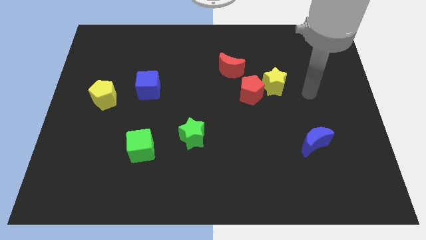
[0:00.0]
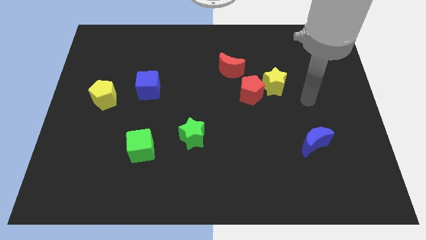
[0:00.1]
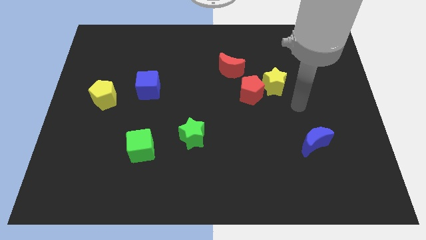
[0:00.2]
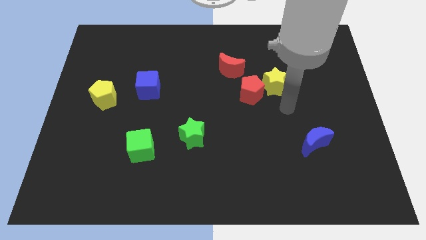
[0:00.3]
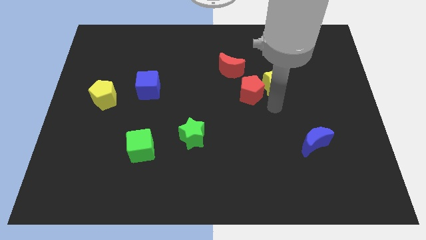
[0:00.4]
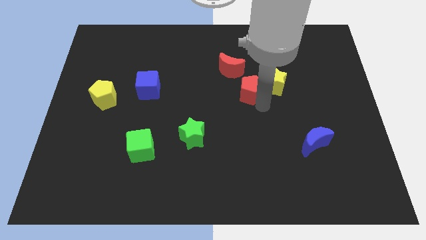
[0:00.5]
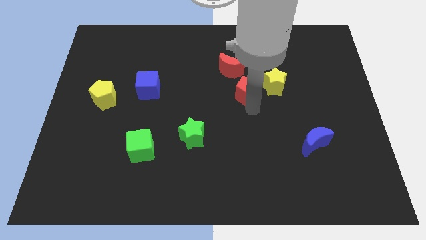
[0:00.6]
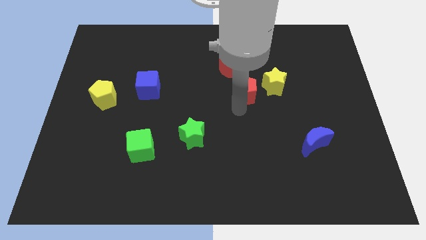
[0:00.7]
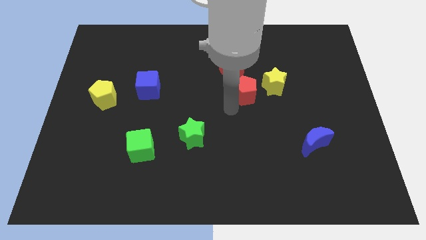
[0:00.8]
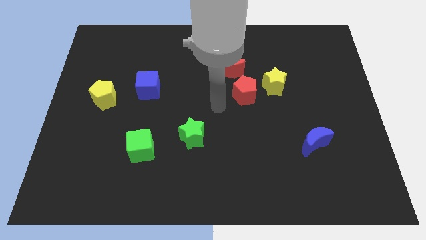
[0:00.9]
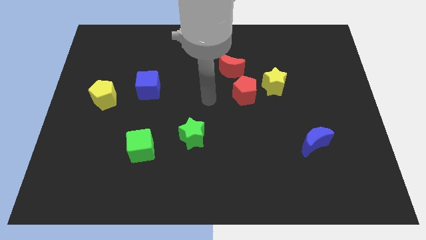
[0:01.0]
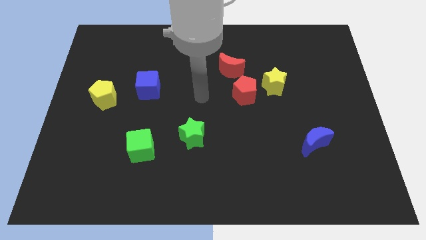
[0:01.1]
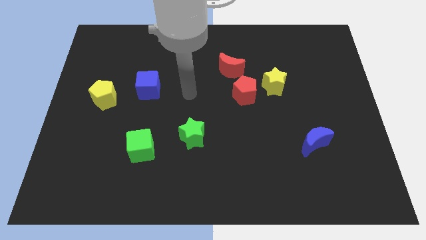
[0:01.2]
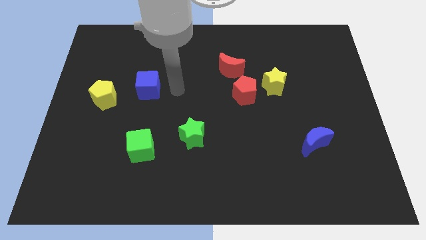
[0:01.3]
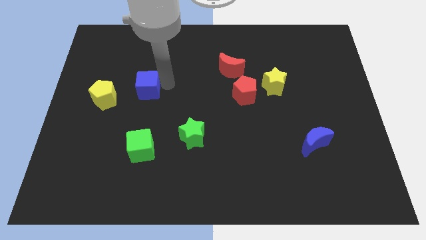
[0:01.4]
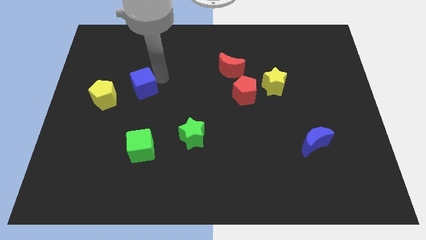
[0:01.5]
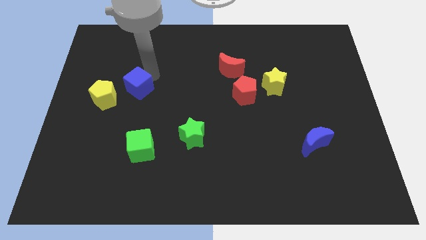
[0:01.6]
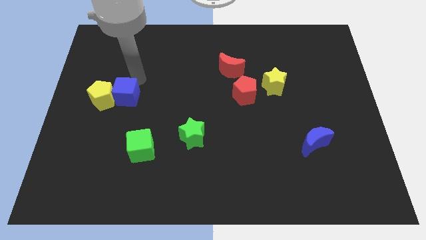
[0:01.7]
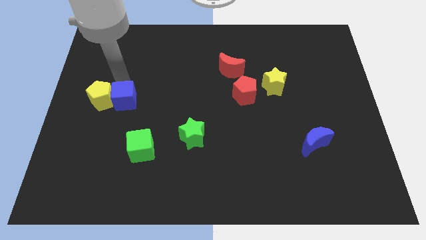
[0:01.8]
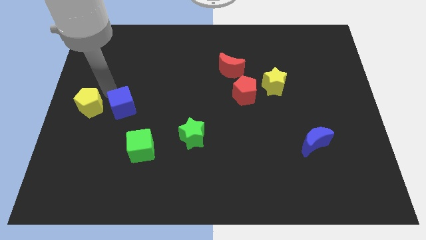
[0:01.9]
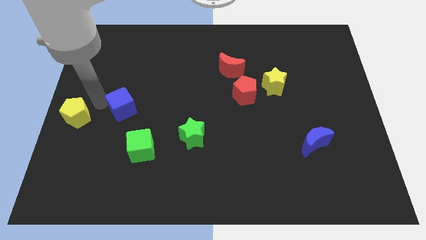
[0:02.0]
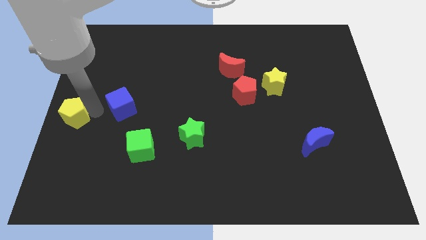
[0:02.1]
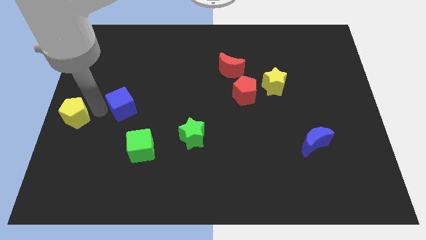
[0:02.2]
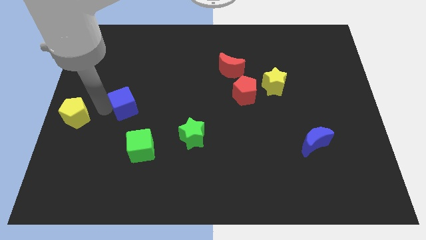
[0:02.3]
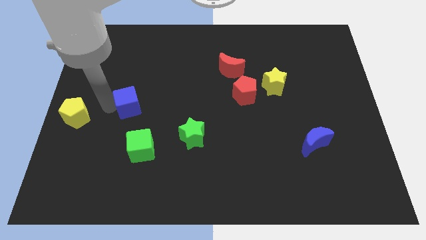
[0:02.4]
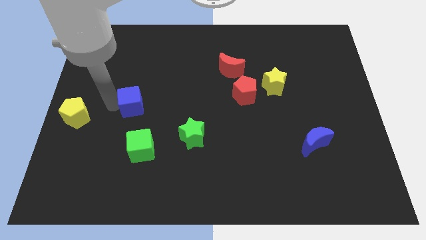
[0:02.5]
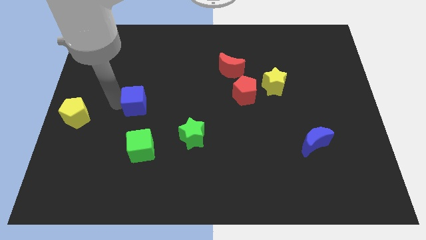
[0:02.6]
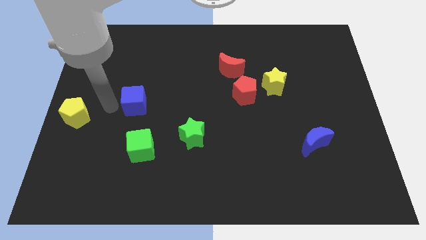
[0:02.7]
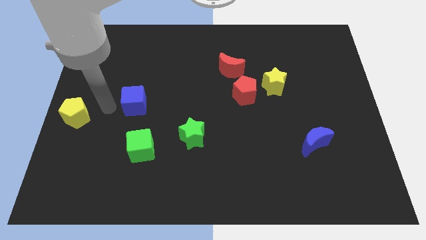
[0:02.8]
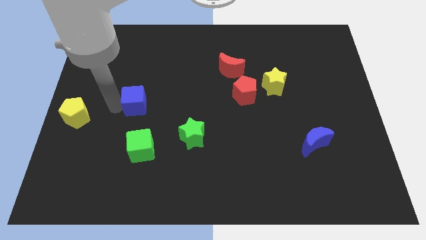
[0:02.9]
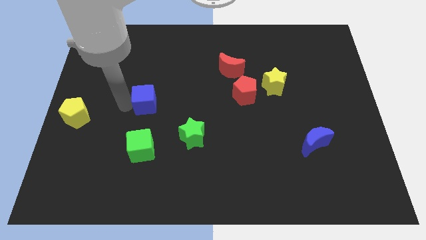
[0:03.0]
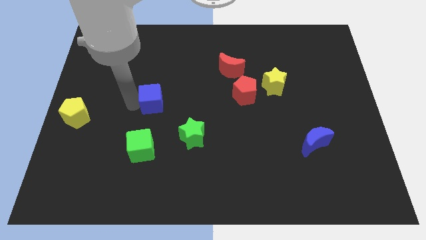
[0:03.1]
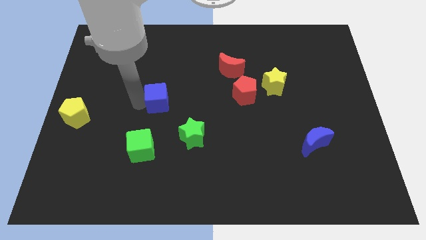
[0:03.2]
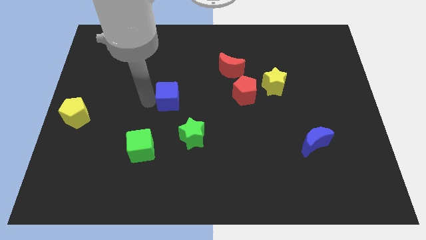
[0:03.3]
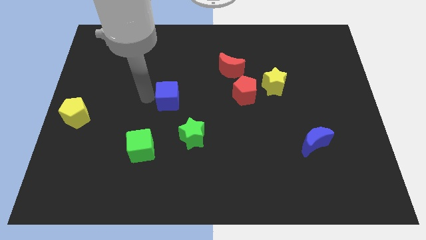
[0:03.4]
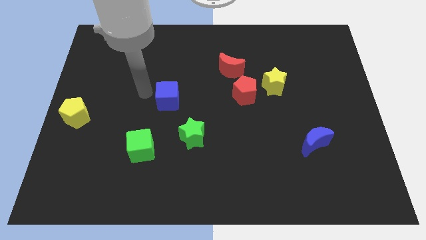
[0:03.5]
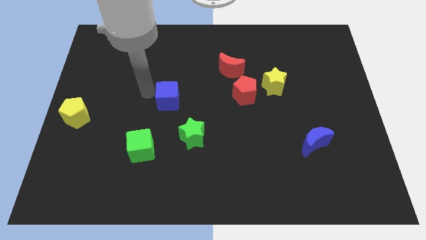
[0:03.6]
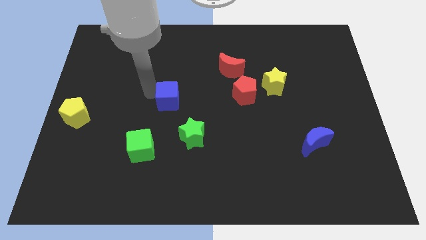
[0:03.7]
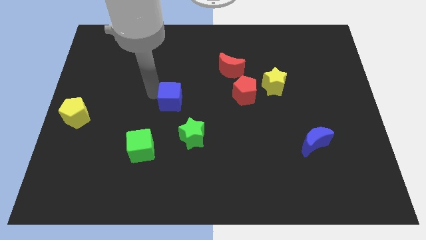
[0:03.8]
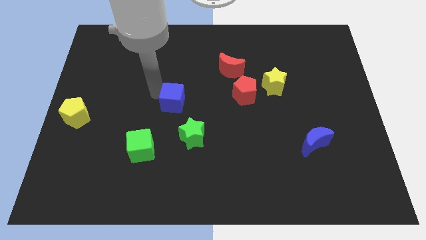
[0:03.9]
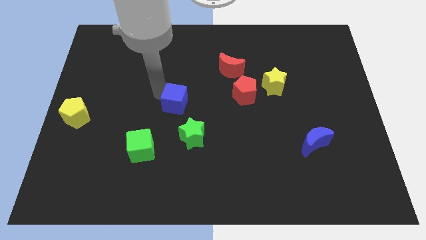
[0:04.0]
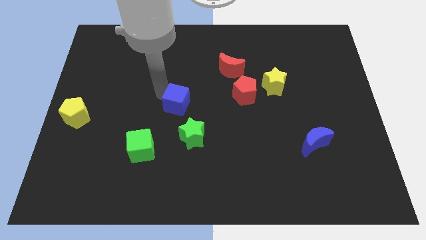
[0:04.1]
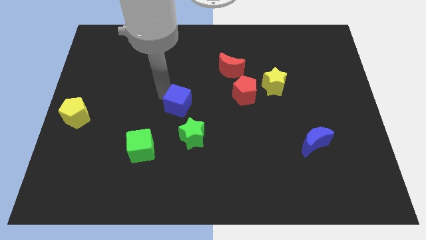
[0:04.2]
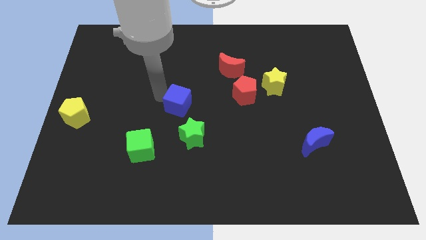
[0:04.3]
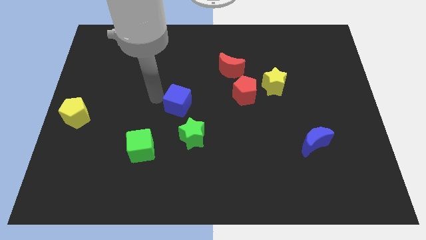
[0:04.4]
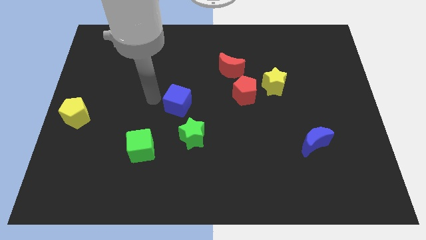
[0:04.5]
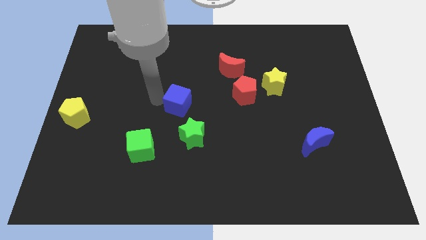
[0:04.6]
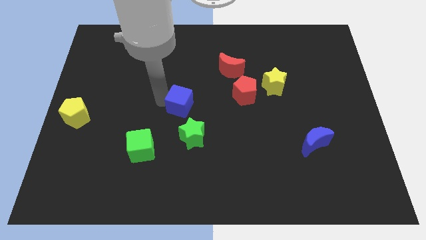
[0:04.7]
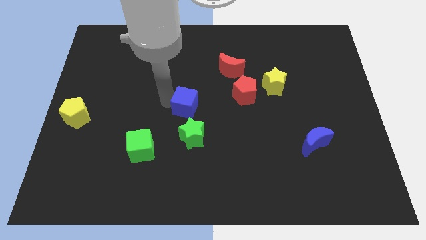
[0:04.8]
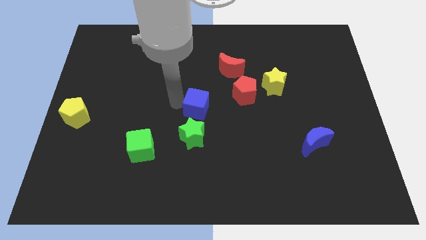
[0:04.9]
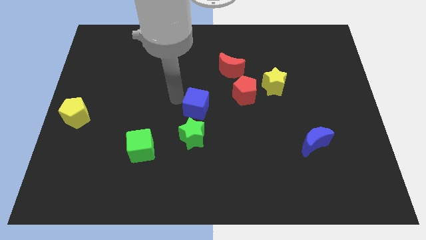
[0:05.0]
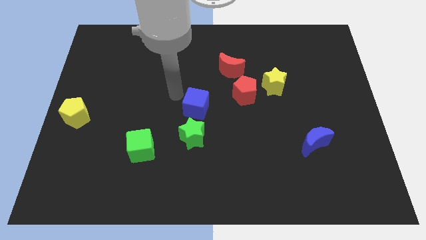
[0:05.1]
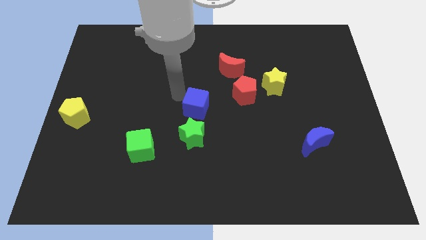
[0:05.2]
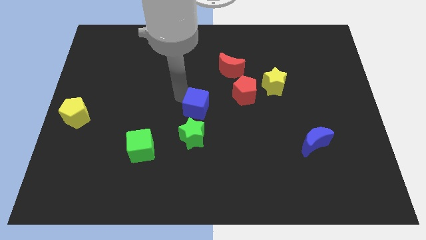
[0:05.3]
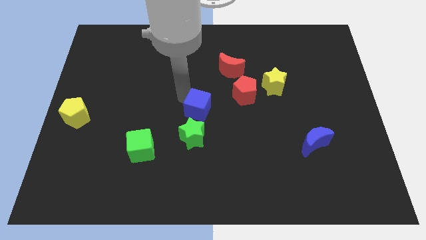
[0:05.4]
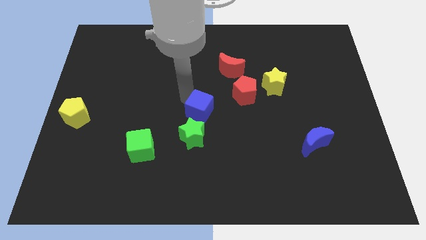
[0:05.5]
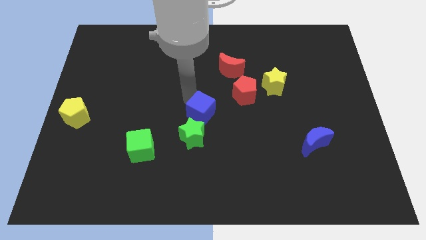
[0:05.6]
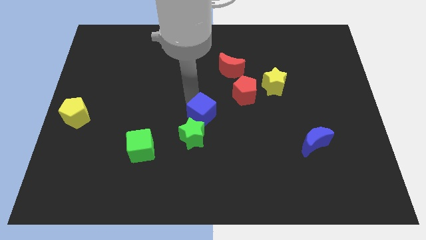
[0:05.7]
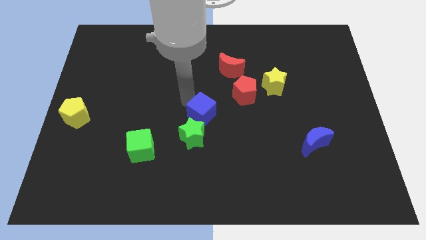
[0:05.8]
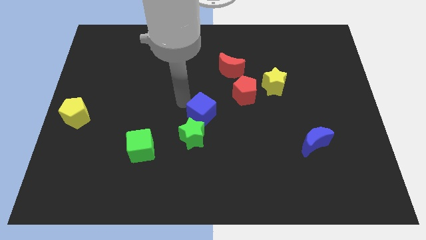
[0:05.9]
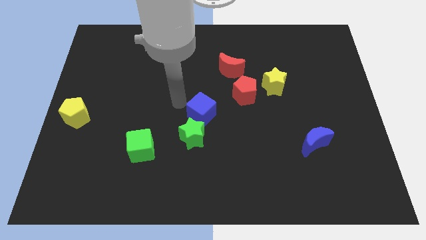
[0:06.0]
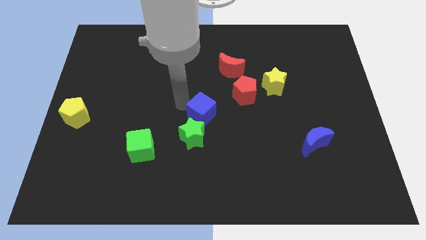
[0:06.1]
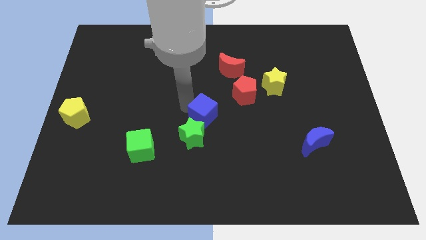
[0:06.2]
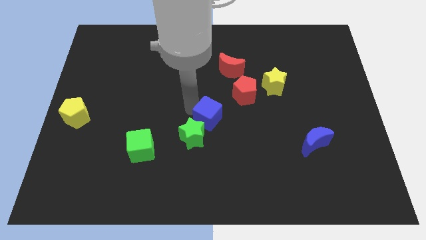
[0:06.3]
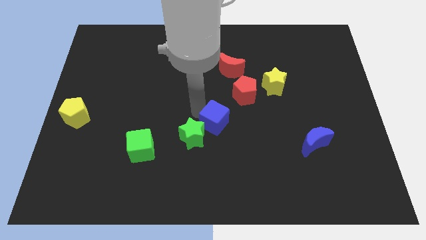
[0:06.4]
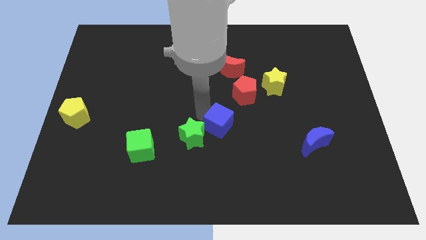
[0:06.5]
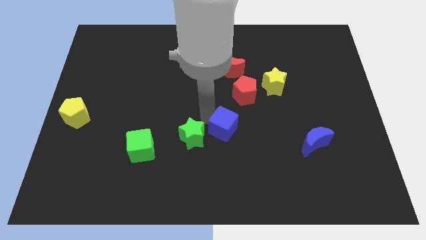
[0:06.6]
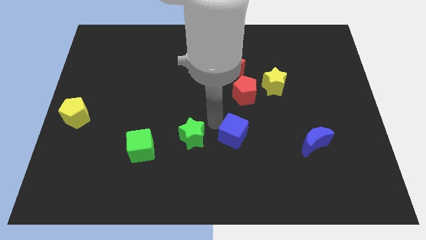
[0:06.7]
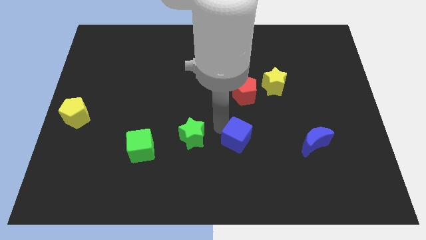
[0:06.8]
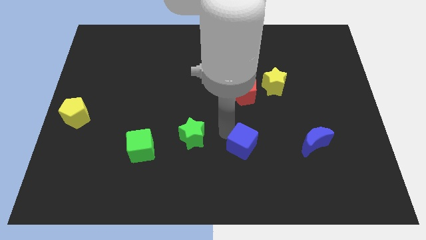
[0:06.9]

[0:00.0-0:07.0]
put the blue cube to the left side of the blue moon

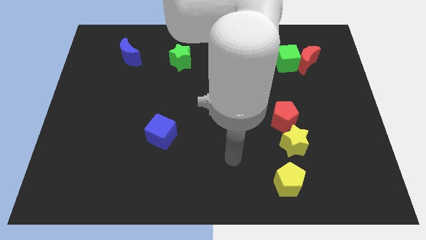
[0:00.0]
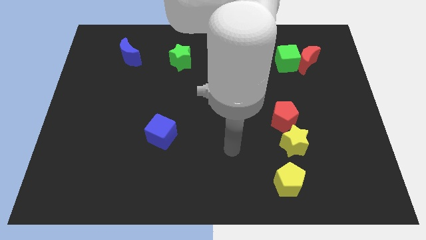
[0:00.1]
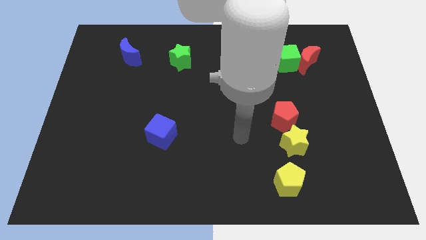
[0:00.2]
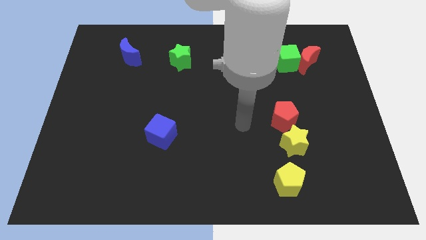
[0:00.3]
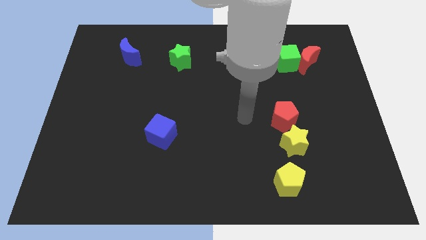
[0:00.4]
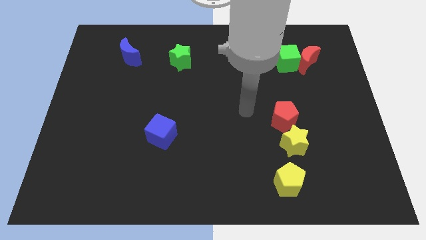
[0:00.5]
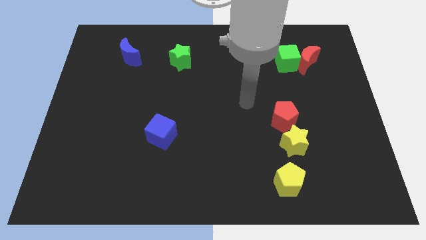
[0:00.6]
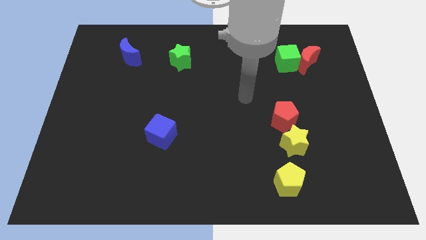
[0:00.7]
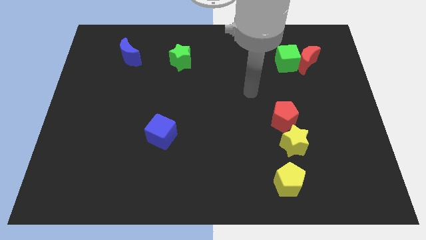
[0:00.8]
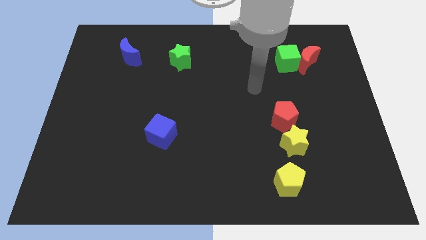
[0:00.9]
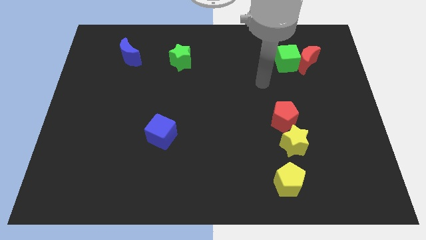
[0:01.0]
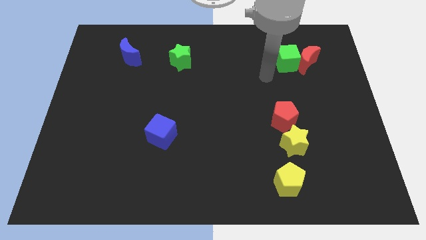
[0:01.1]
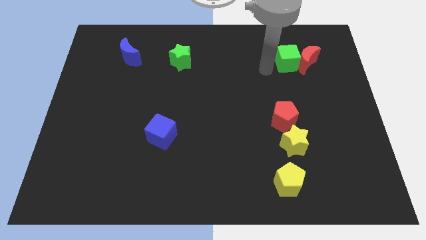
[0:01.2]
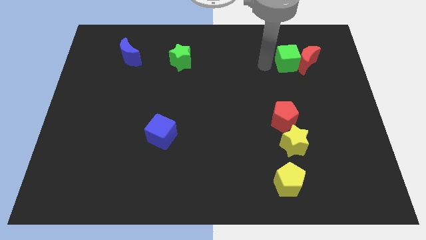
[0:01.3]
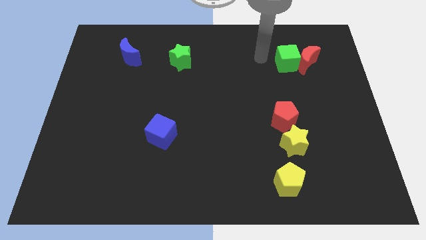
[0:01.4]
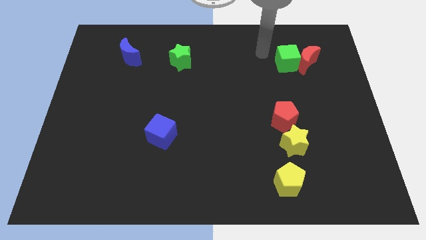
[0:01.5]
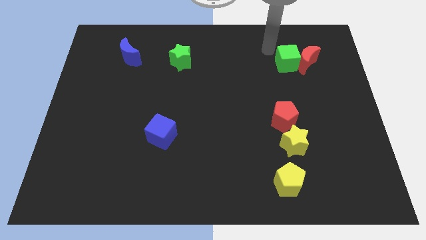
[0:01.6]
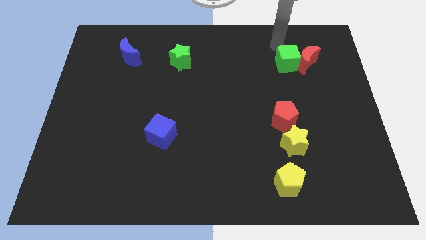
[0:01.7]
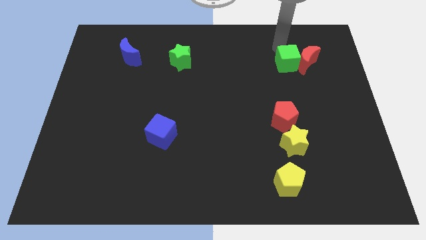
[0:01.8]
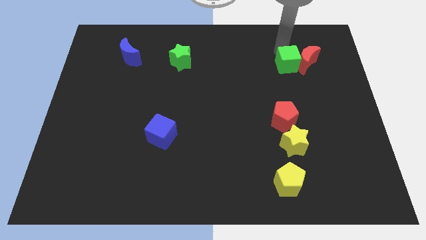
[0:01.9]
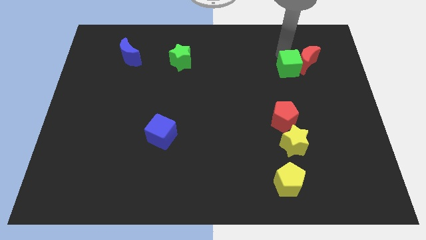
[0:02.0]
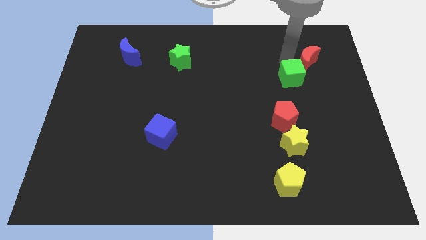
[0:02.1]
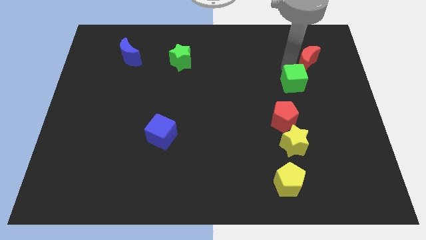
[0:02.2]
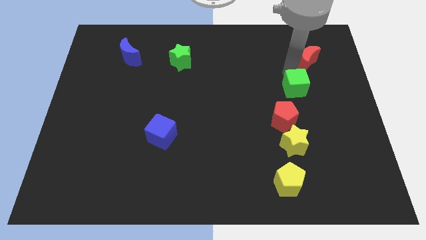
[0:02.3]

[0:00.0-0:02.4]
push the green cube to the top right of the red pentagon
